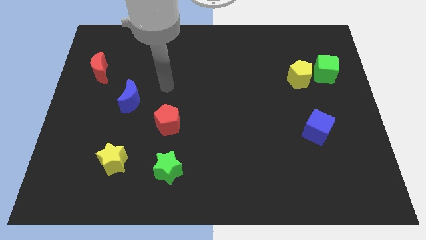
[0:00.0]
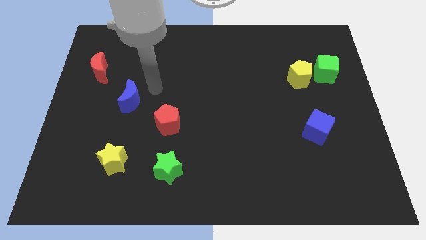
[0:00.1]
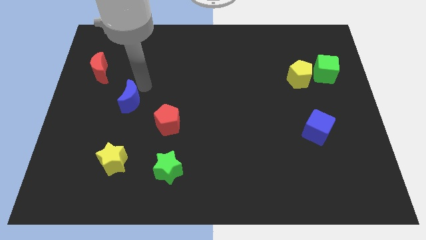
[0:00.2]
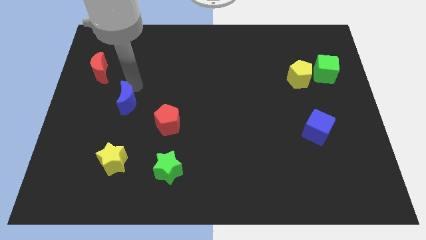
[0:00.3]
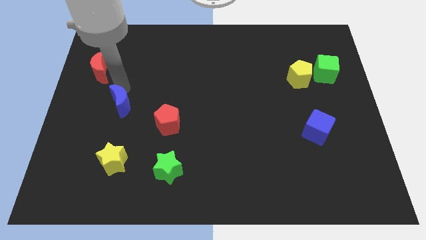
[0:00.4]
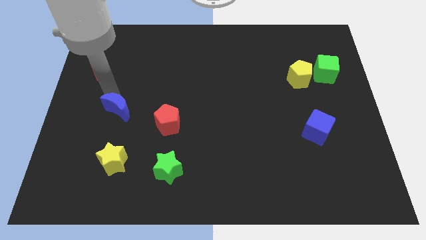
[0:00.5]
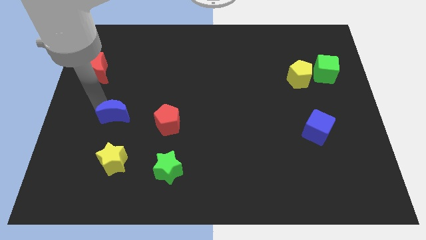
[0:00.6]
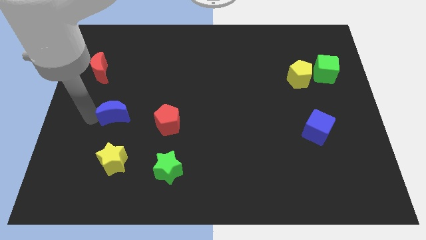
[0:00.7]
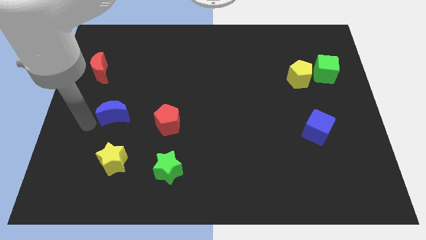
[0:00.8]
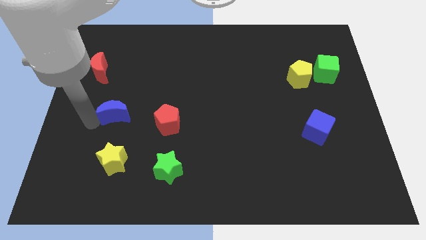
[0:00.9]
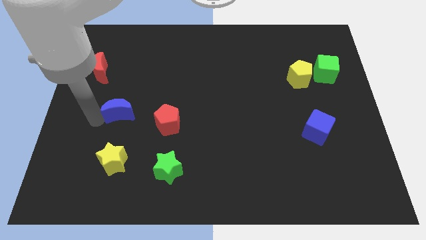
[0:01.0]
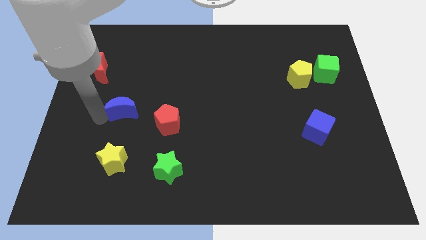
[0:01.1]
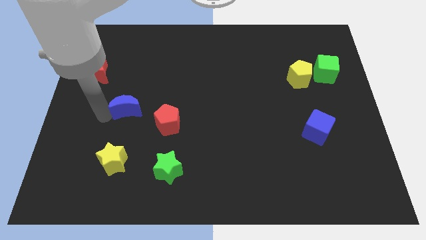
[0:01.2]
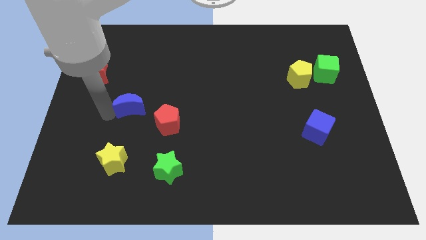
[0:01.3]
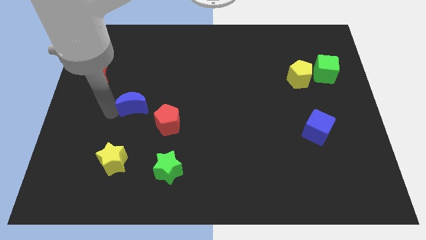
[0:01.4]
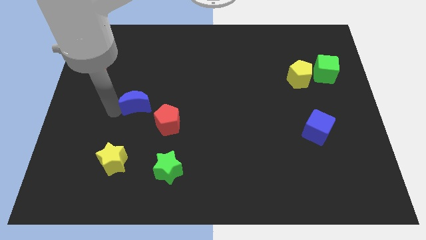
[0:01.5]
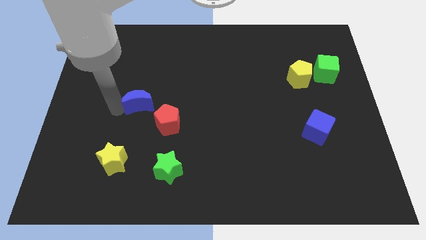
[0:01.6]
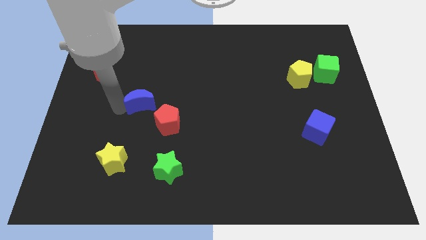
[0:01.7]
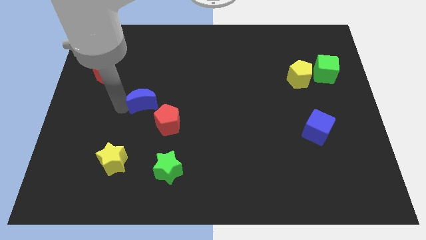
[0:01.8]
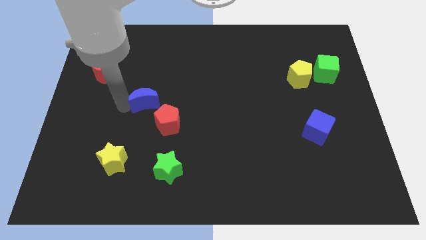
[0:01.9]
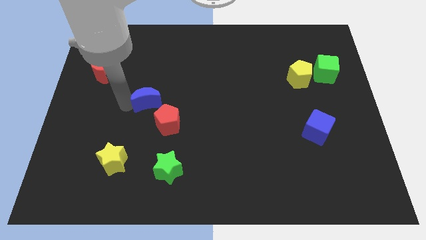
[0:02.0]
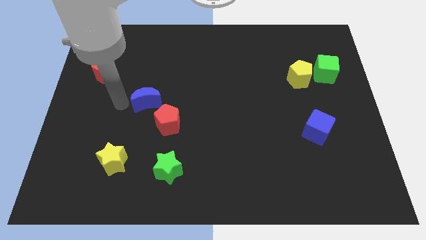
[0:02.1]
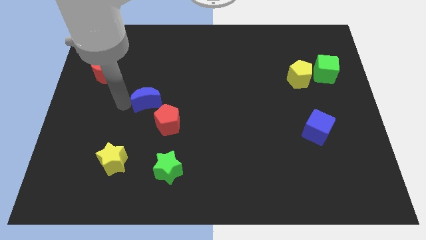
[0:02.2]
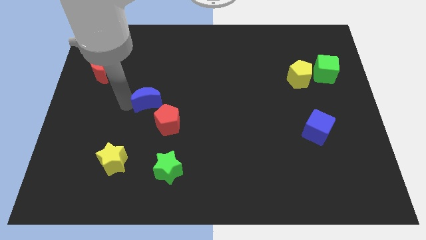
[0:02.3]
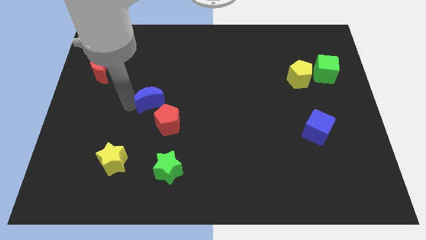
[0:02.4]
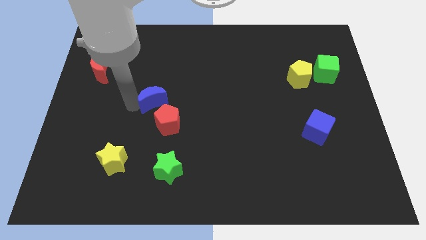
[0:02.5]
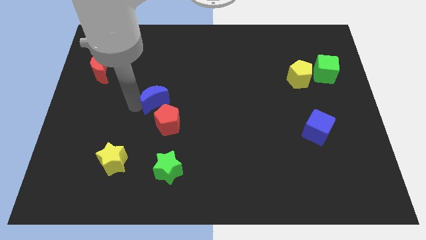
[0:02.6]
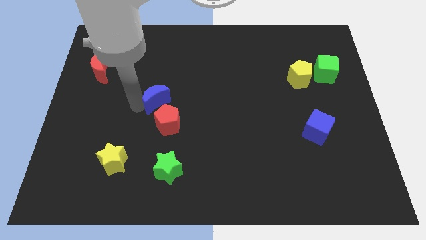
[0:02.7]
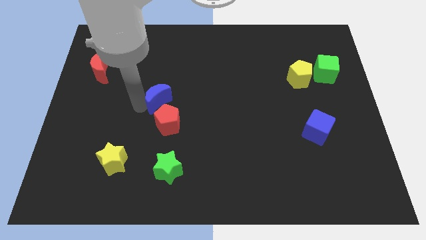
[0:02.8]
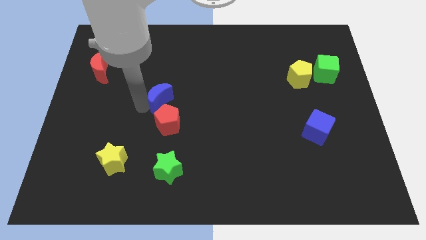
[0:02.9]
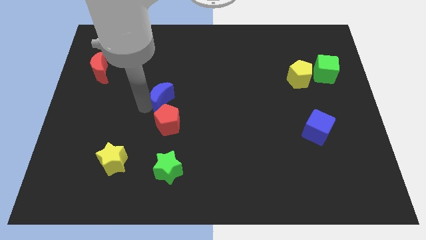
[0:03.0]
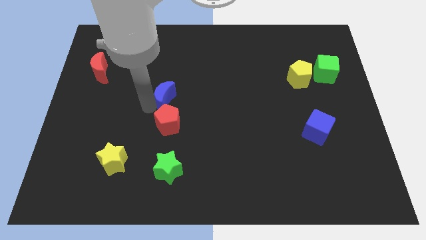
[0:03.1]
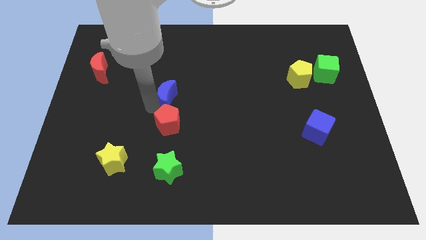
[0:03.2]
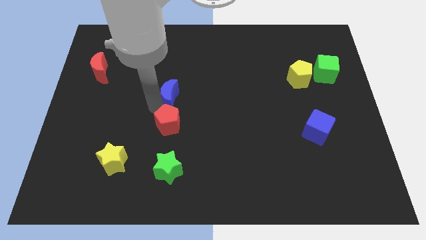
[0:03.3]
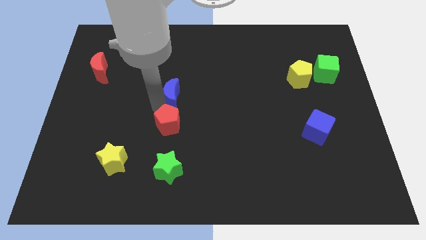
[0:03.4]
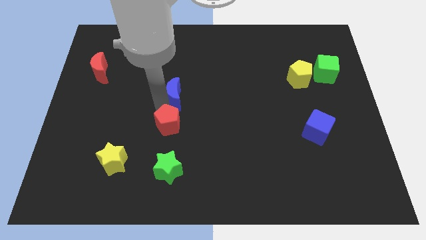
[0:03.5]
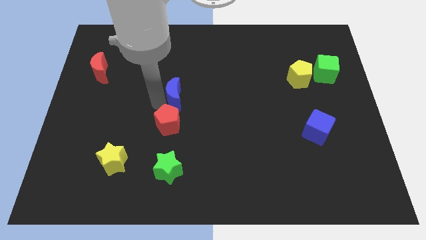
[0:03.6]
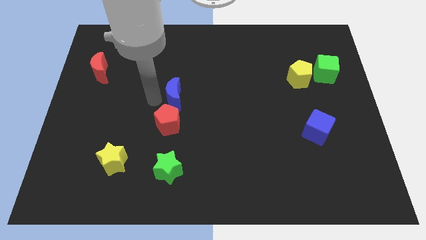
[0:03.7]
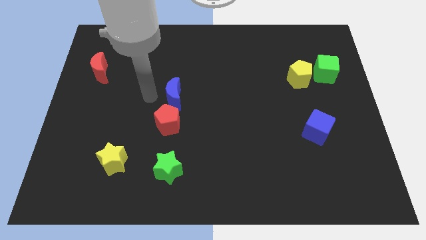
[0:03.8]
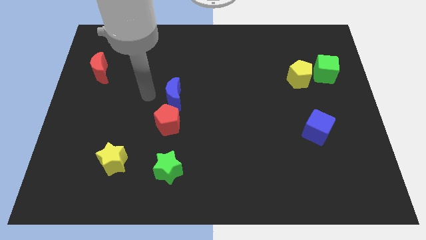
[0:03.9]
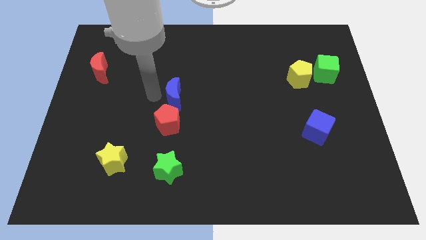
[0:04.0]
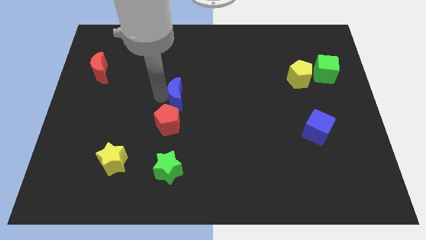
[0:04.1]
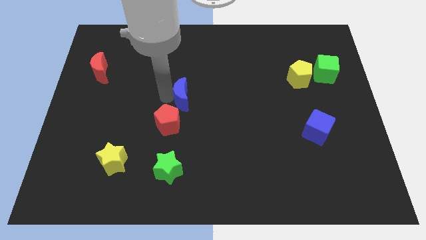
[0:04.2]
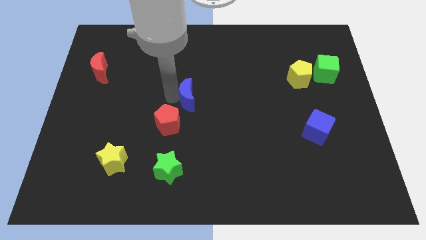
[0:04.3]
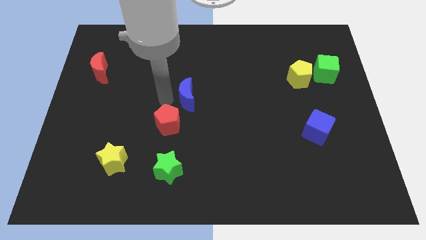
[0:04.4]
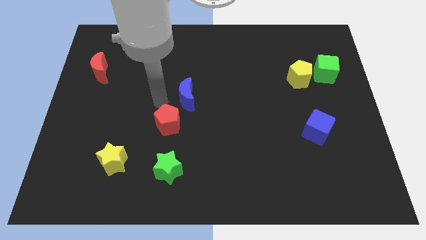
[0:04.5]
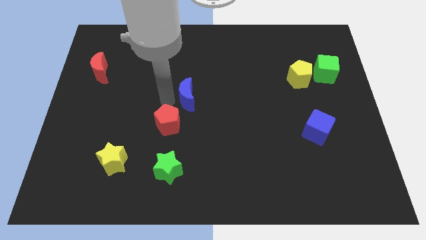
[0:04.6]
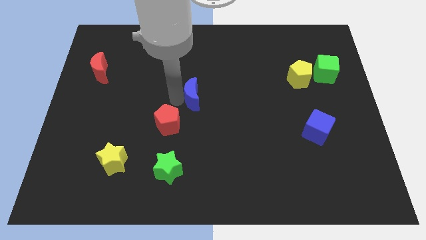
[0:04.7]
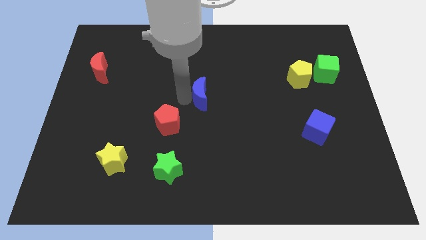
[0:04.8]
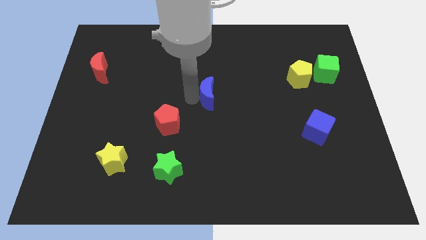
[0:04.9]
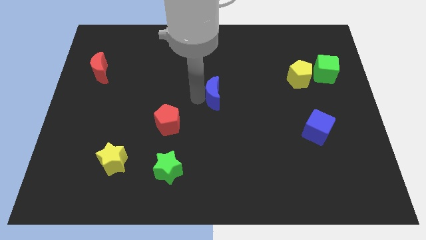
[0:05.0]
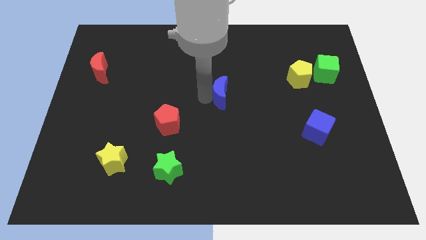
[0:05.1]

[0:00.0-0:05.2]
slide the blue moon right

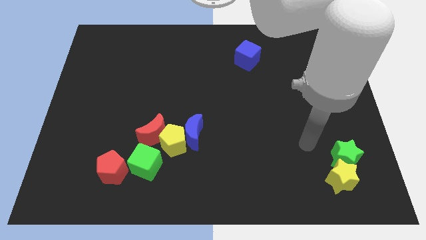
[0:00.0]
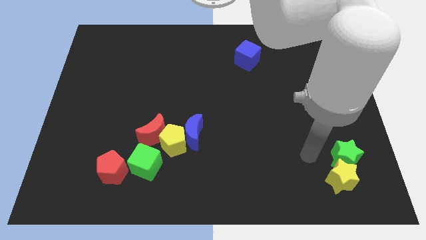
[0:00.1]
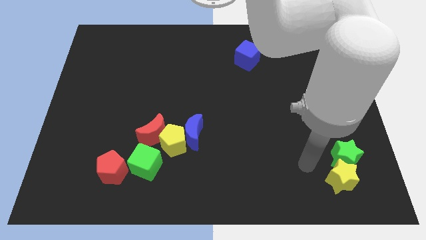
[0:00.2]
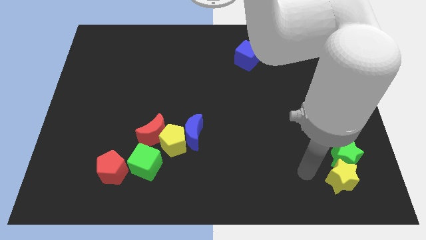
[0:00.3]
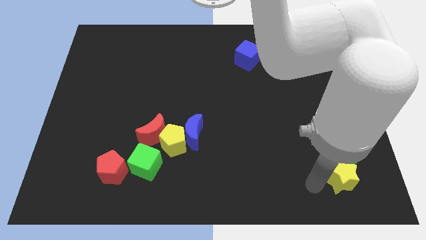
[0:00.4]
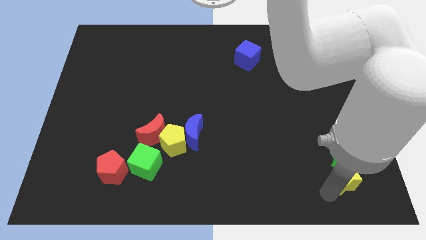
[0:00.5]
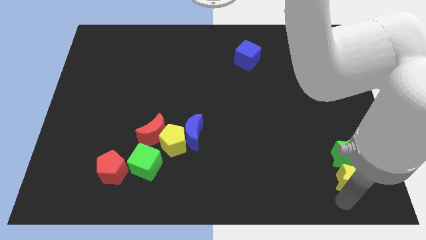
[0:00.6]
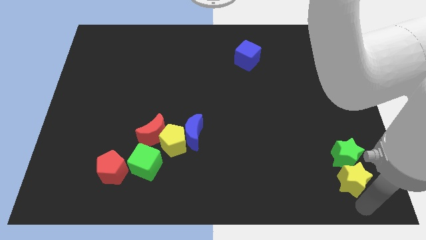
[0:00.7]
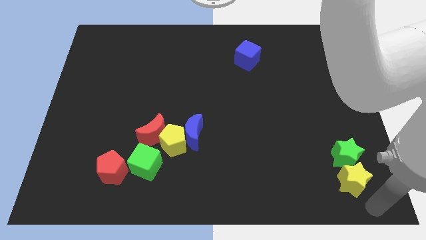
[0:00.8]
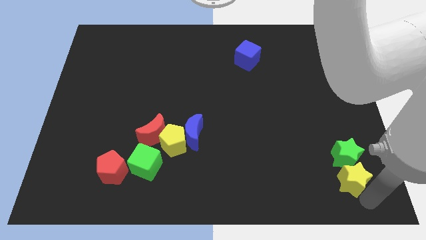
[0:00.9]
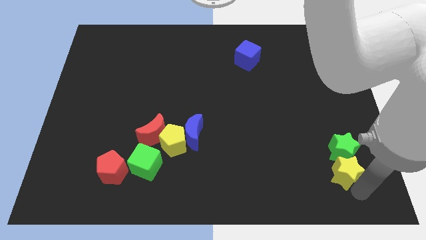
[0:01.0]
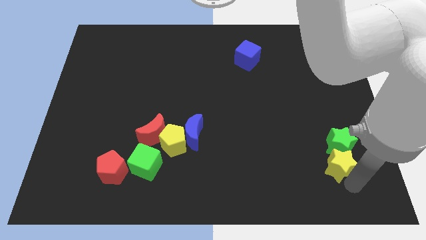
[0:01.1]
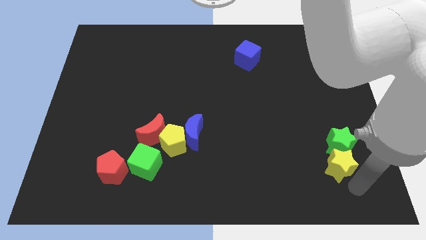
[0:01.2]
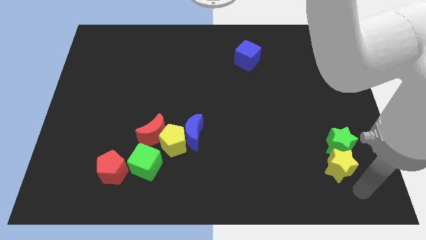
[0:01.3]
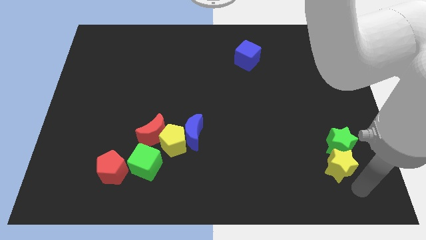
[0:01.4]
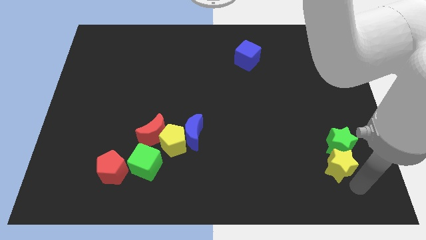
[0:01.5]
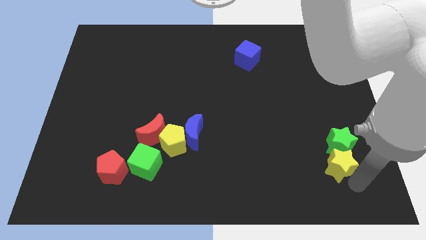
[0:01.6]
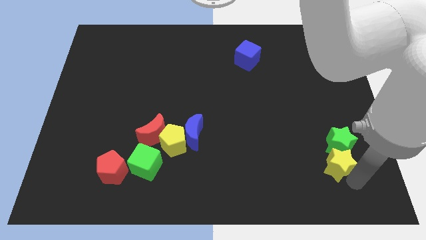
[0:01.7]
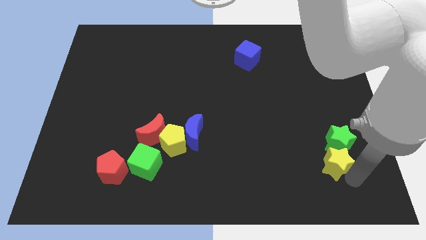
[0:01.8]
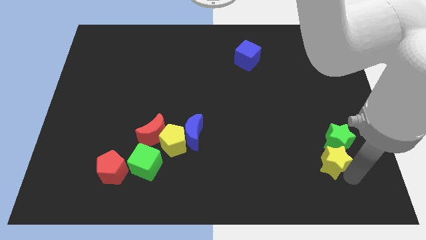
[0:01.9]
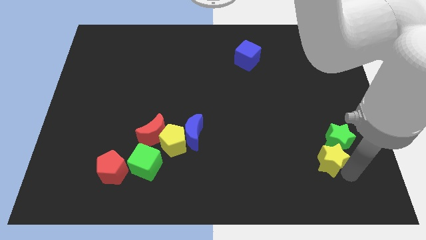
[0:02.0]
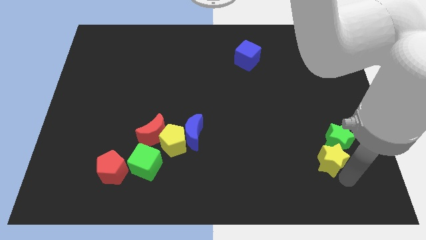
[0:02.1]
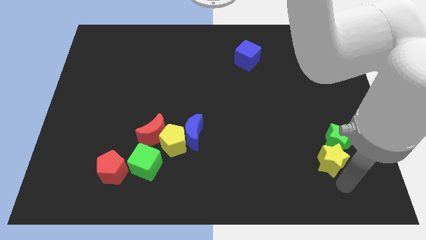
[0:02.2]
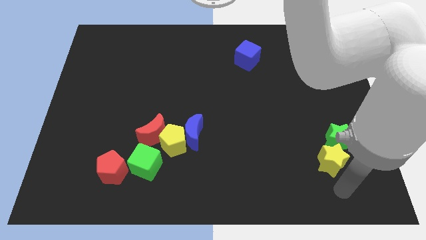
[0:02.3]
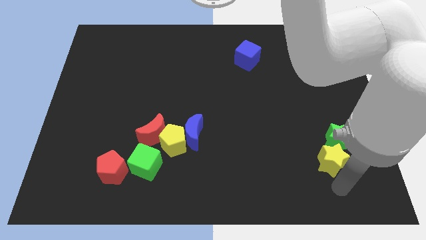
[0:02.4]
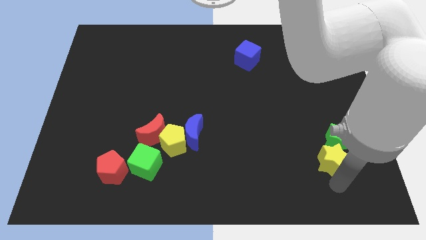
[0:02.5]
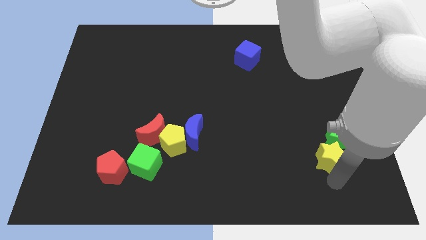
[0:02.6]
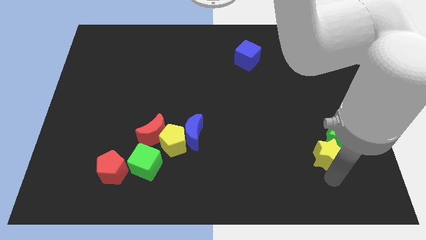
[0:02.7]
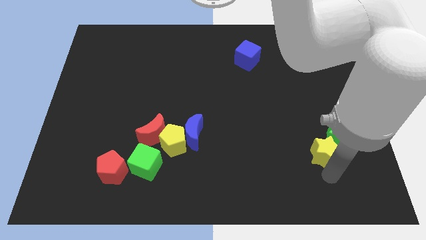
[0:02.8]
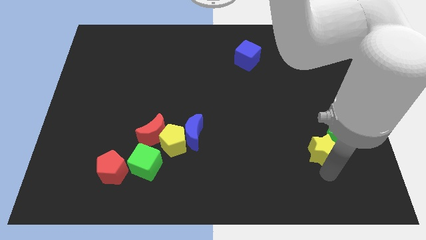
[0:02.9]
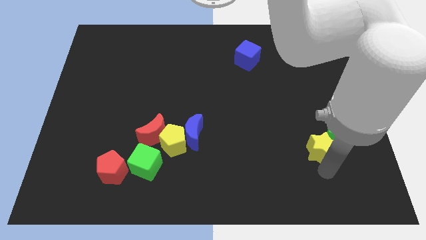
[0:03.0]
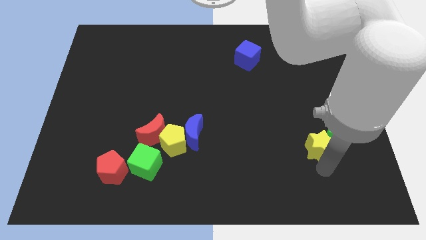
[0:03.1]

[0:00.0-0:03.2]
push the yellow star somewhat upwards
